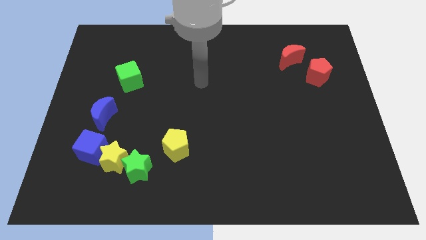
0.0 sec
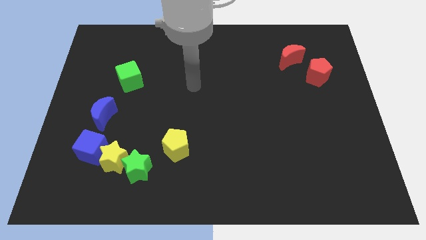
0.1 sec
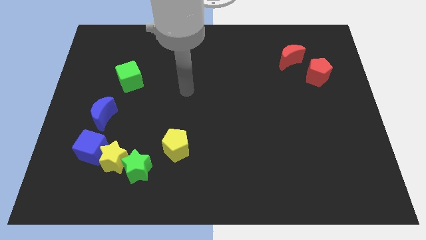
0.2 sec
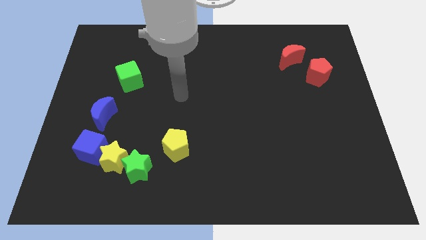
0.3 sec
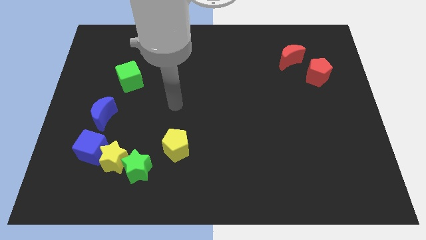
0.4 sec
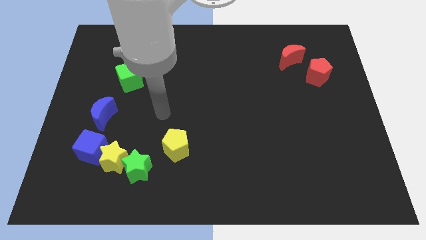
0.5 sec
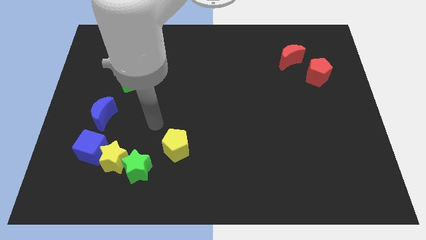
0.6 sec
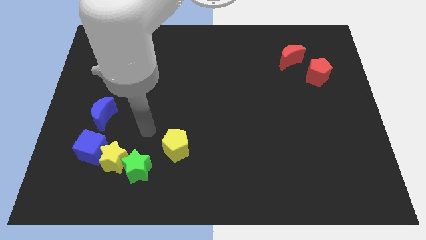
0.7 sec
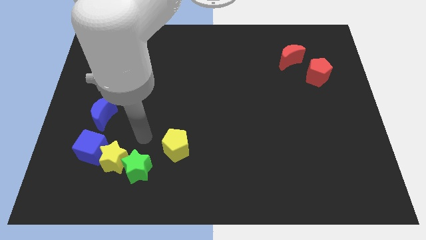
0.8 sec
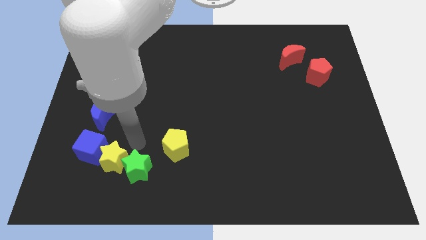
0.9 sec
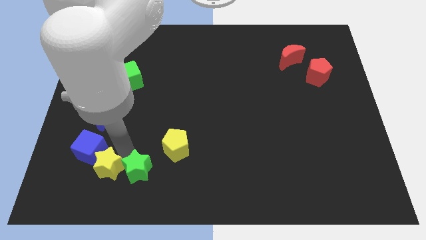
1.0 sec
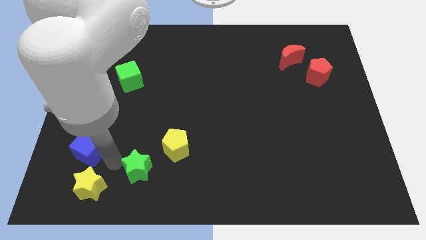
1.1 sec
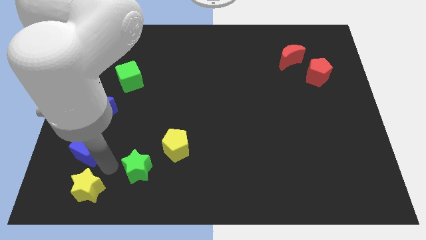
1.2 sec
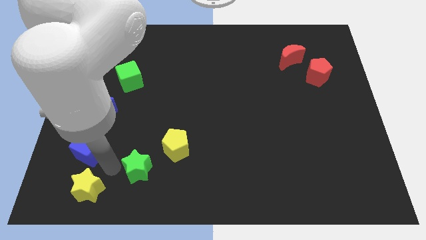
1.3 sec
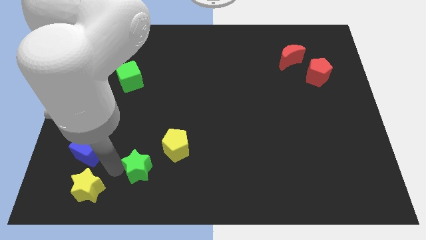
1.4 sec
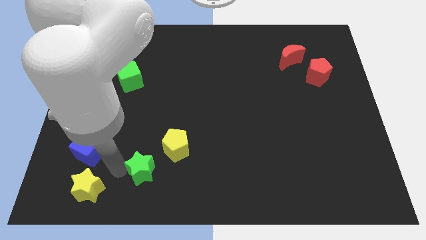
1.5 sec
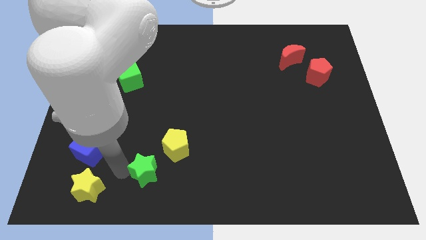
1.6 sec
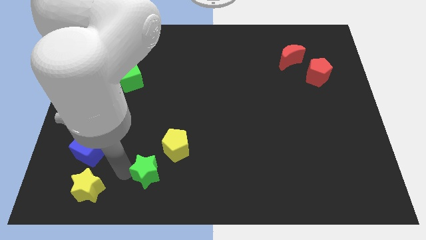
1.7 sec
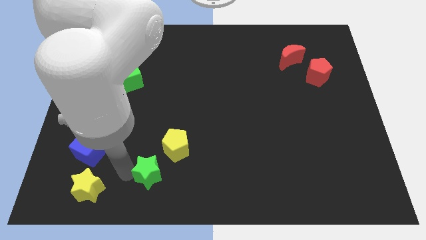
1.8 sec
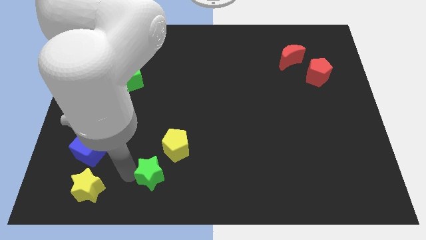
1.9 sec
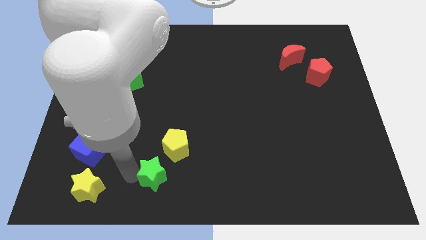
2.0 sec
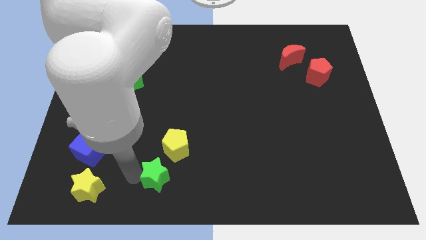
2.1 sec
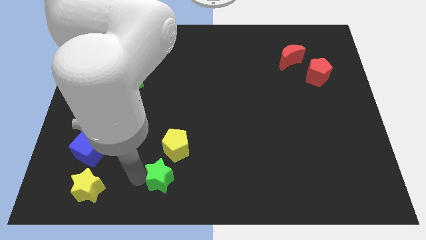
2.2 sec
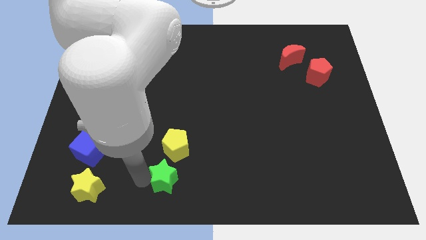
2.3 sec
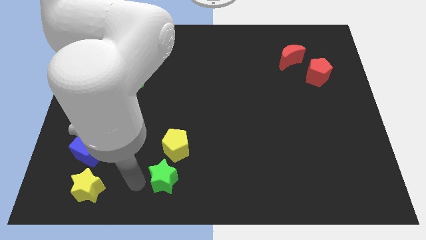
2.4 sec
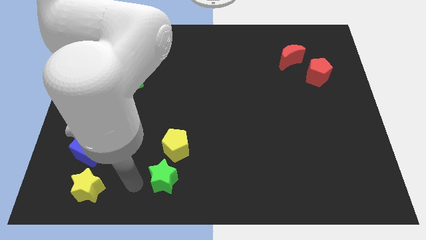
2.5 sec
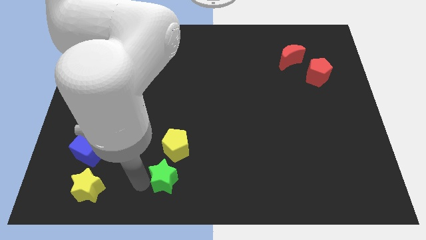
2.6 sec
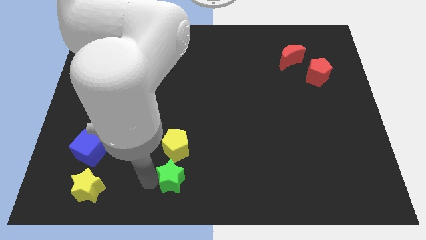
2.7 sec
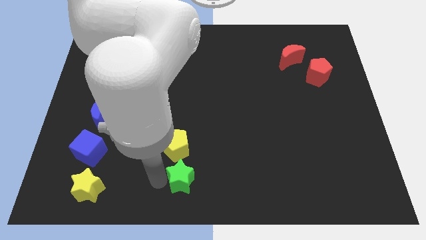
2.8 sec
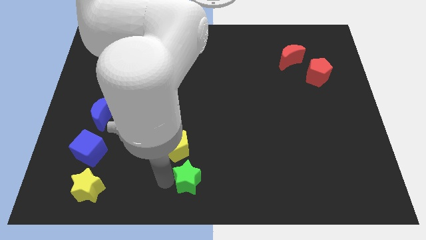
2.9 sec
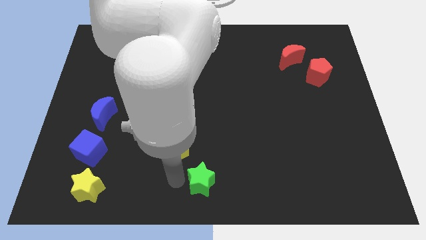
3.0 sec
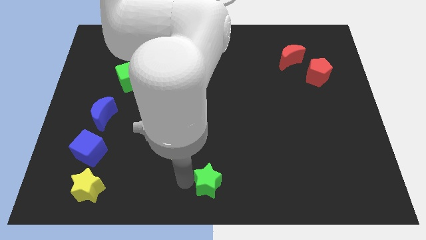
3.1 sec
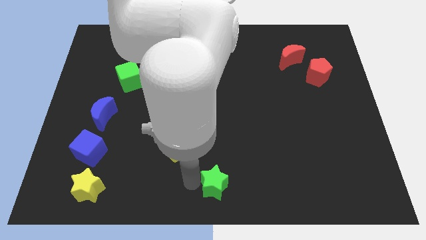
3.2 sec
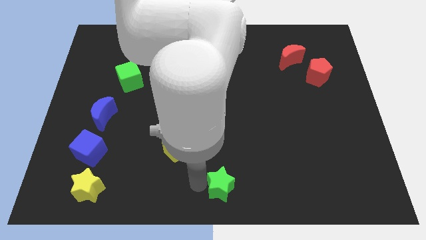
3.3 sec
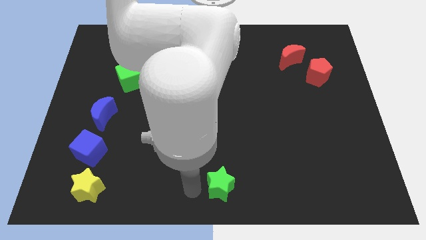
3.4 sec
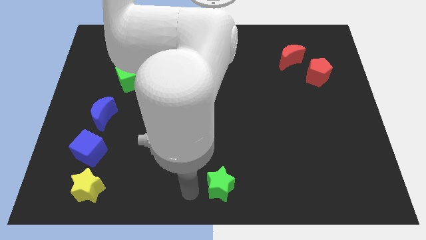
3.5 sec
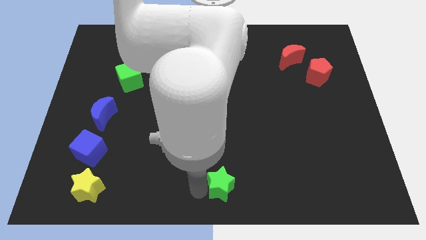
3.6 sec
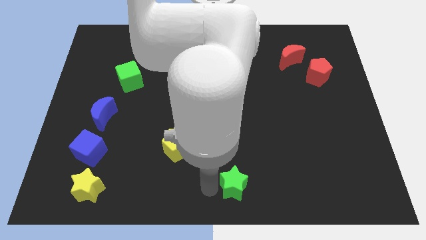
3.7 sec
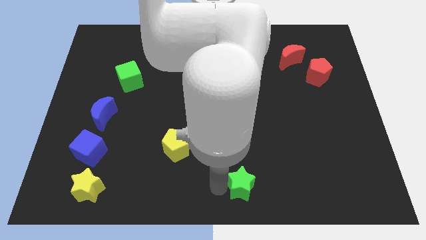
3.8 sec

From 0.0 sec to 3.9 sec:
push the green star to the right

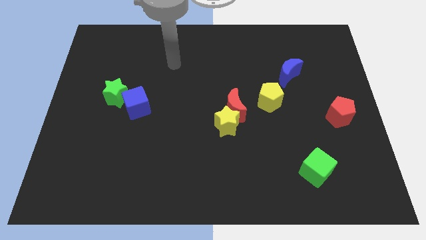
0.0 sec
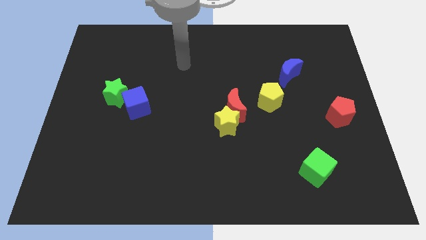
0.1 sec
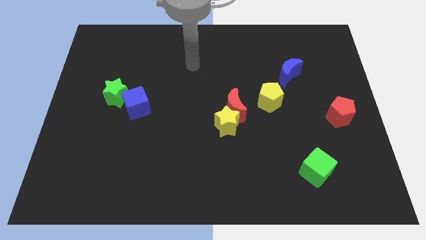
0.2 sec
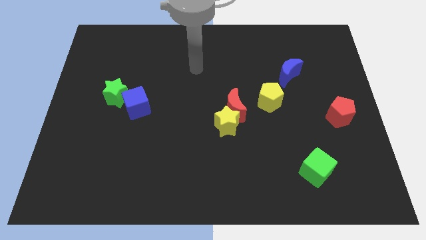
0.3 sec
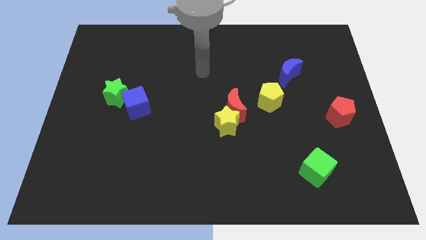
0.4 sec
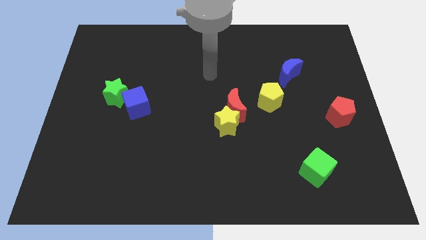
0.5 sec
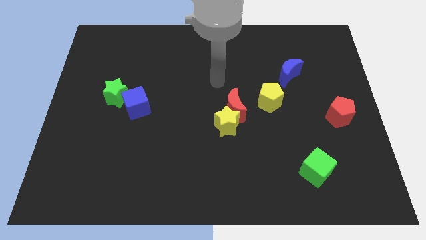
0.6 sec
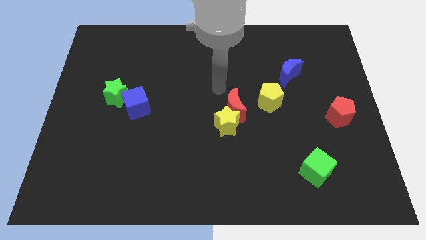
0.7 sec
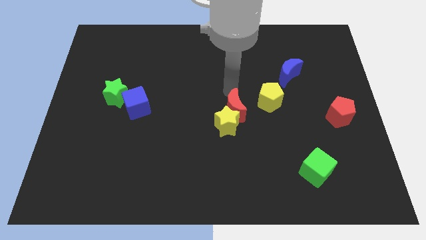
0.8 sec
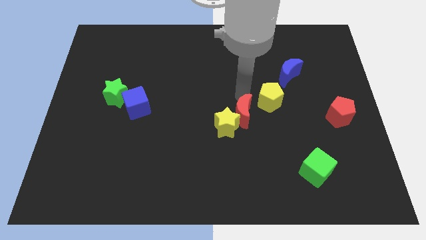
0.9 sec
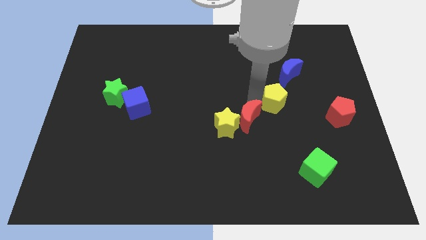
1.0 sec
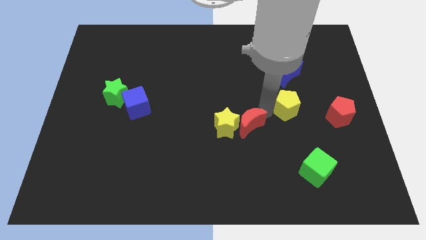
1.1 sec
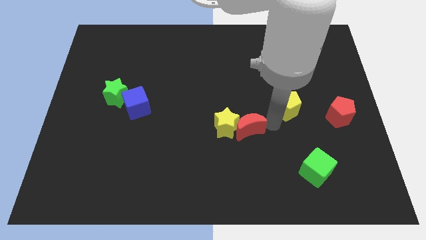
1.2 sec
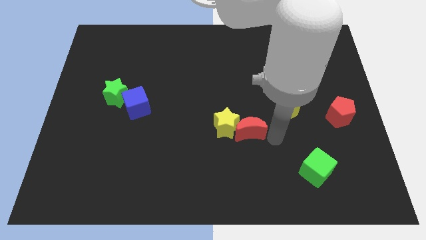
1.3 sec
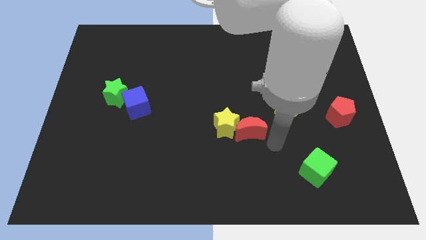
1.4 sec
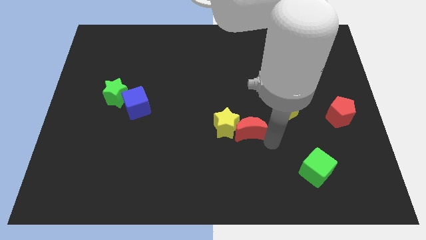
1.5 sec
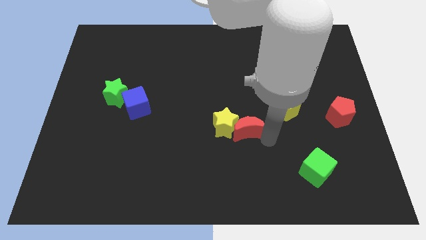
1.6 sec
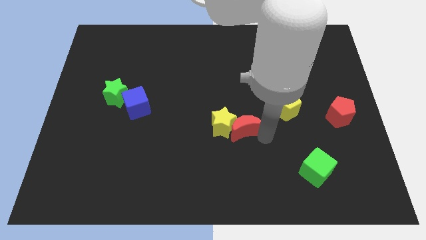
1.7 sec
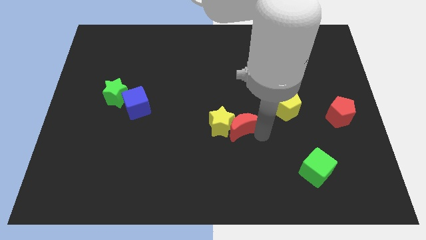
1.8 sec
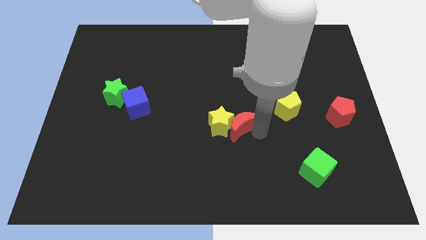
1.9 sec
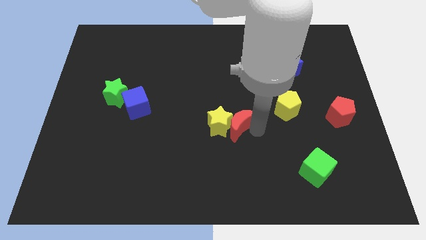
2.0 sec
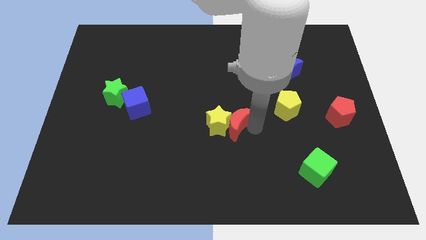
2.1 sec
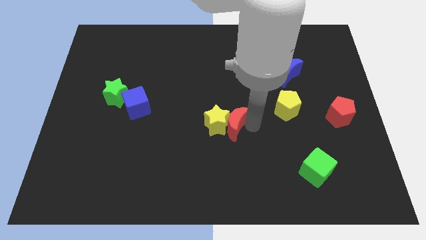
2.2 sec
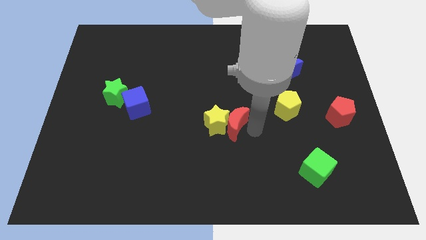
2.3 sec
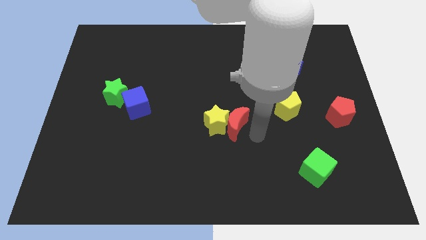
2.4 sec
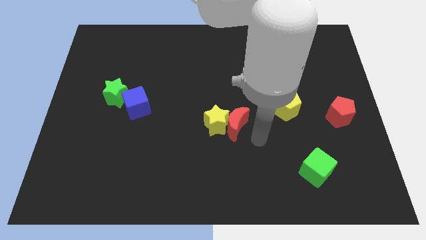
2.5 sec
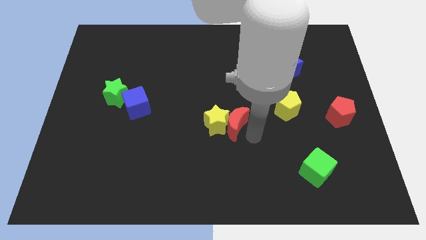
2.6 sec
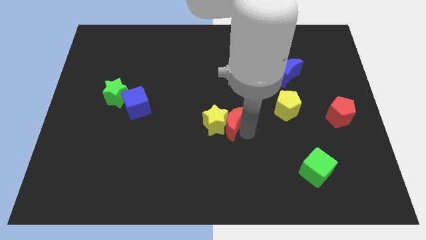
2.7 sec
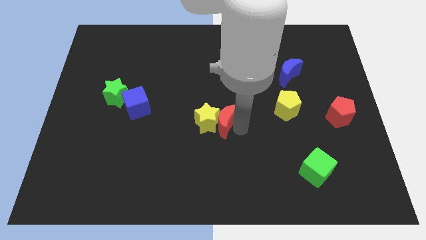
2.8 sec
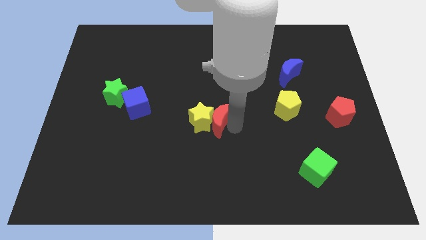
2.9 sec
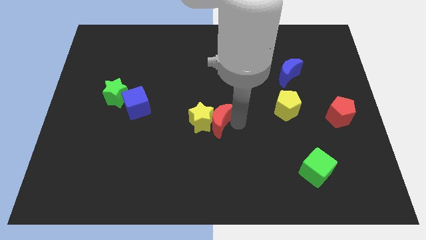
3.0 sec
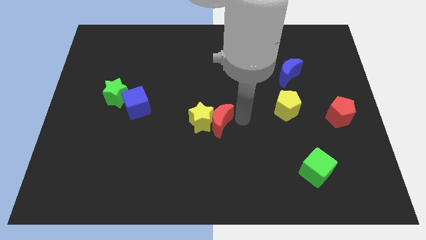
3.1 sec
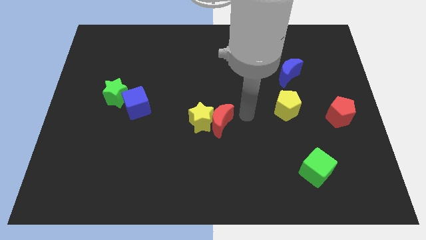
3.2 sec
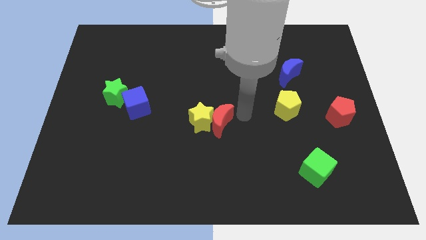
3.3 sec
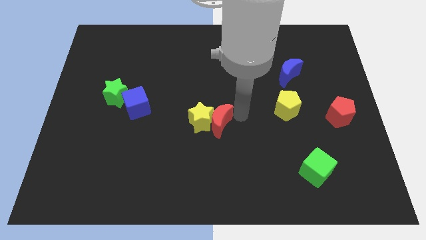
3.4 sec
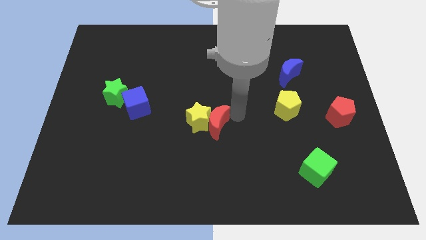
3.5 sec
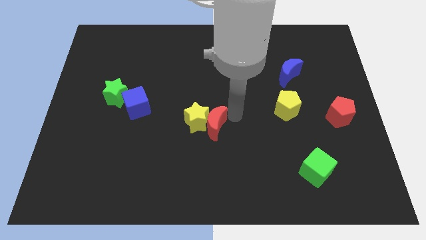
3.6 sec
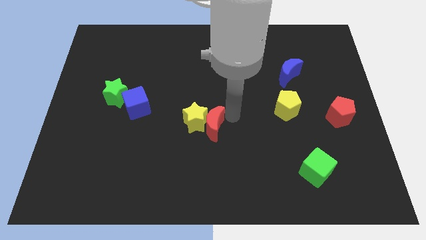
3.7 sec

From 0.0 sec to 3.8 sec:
move the red moon downwards and then to the left a little

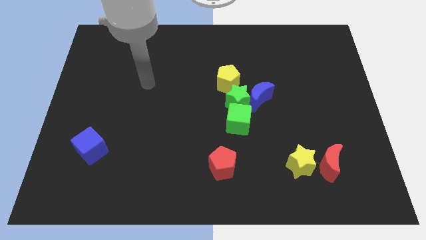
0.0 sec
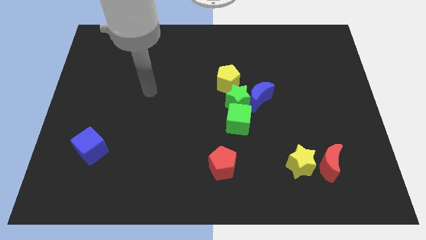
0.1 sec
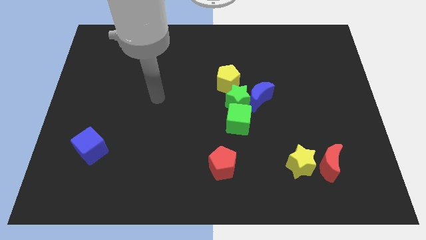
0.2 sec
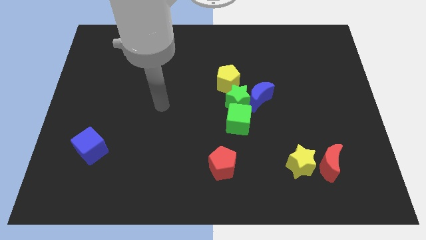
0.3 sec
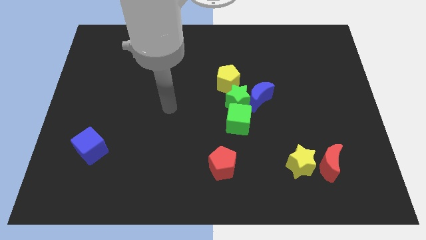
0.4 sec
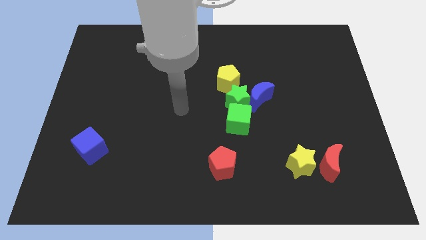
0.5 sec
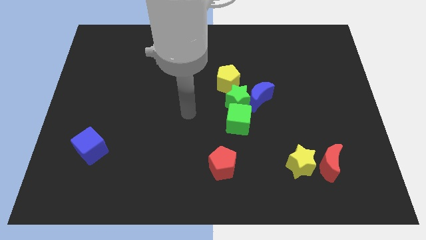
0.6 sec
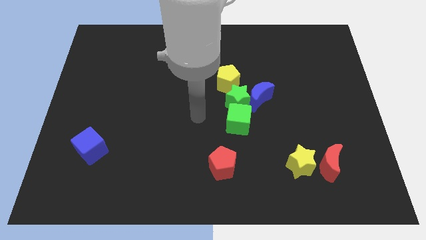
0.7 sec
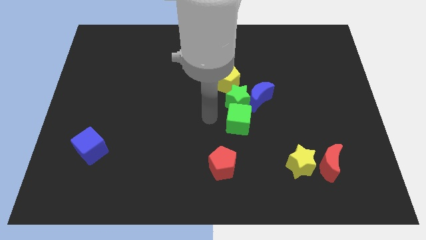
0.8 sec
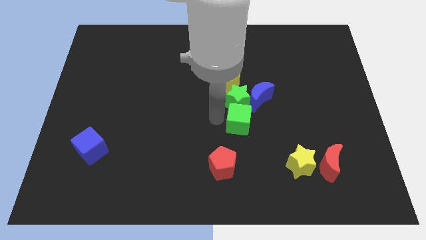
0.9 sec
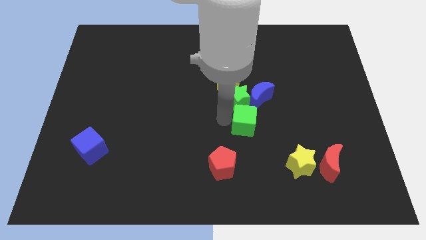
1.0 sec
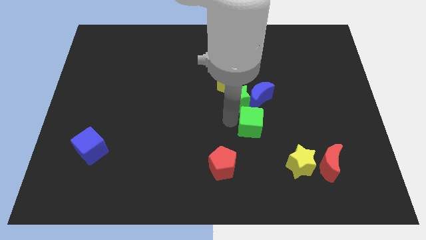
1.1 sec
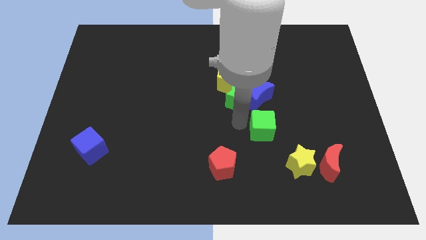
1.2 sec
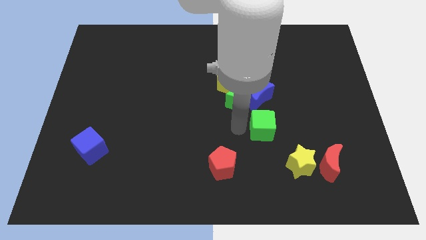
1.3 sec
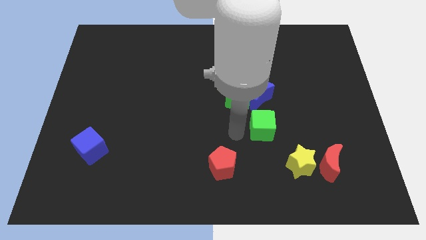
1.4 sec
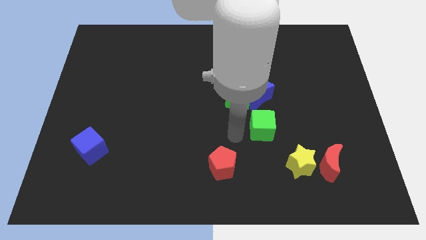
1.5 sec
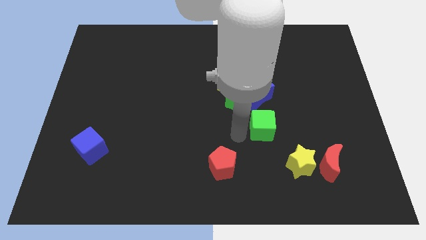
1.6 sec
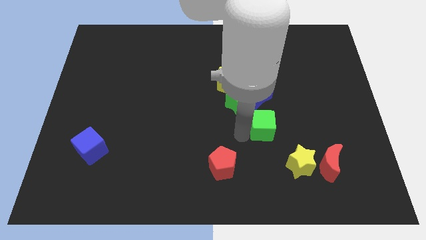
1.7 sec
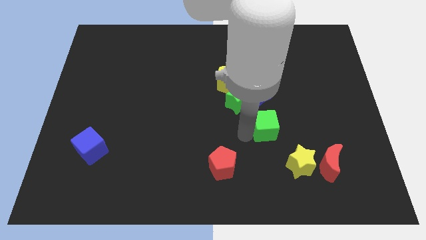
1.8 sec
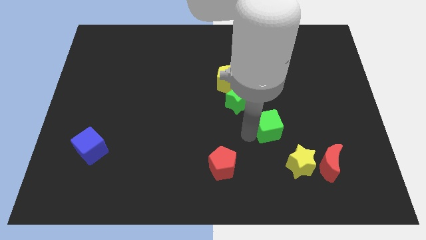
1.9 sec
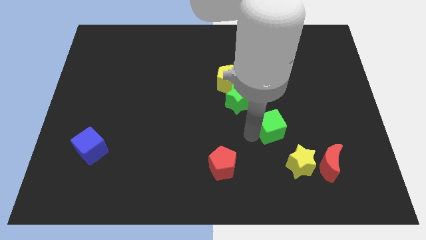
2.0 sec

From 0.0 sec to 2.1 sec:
slide the green cube a little right
